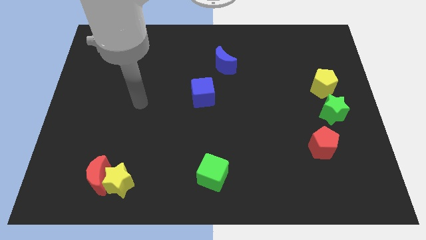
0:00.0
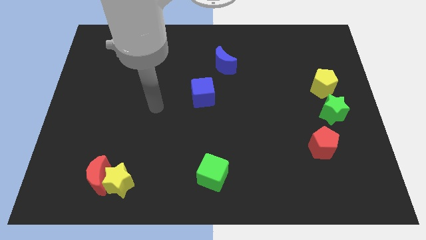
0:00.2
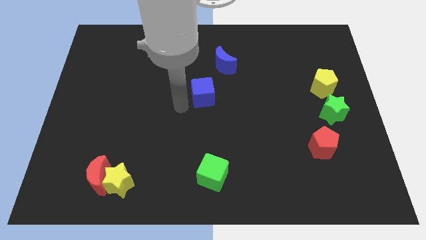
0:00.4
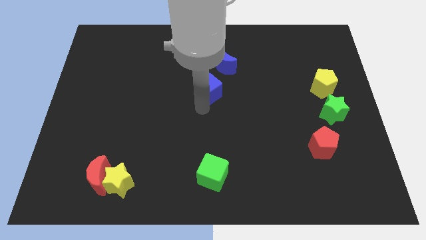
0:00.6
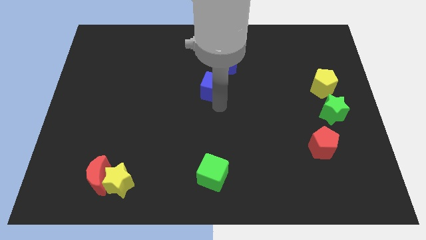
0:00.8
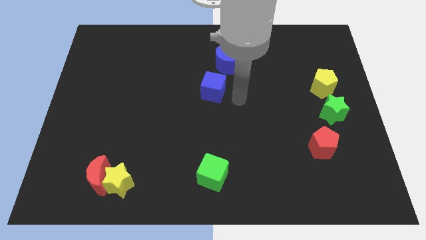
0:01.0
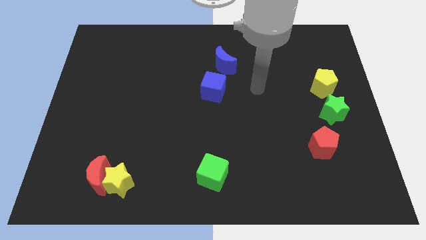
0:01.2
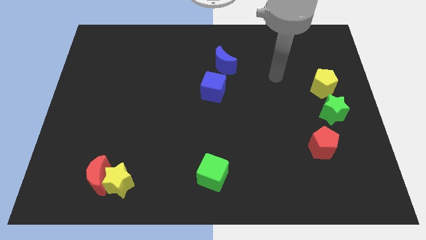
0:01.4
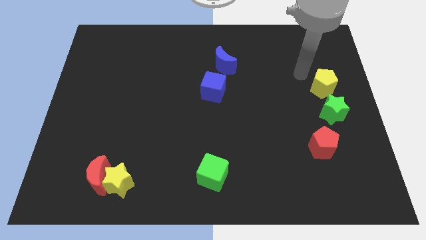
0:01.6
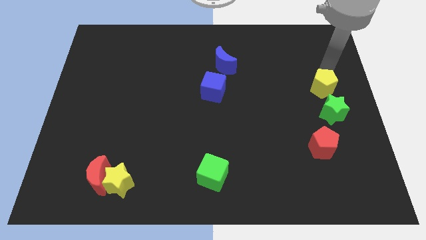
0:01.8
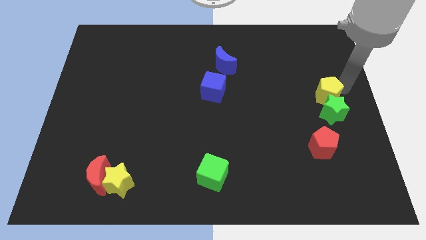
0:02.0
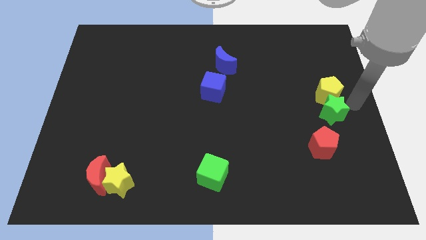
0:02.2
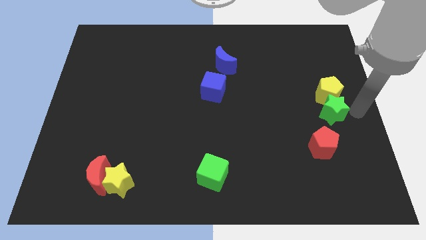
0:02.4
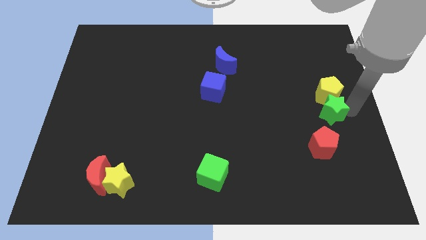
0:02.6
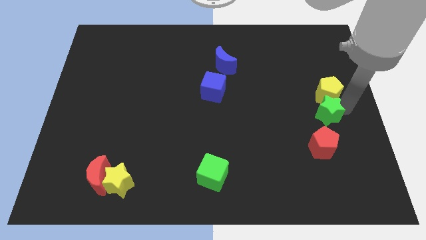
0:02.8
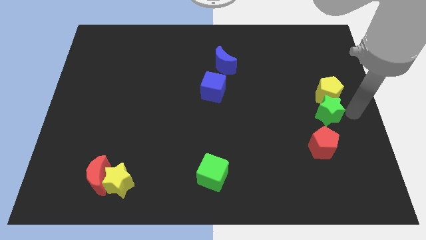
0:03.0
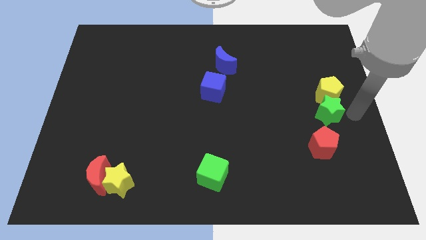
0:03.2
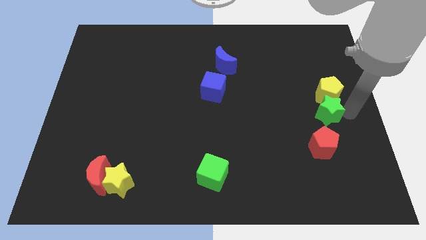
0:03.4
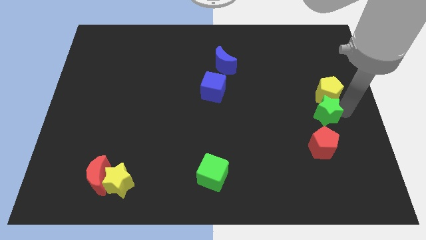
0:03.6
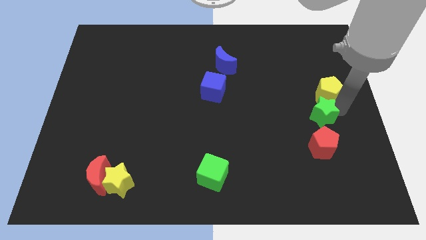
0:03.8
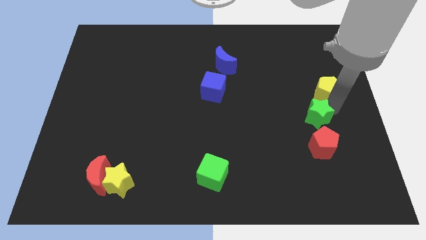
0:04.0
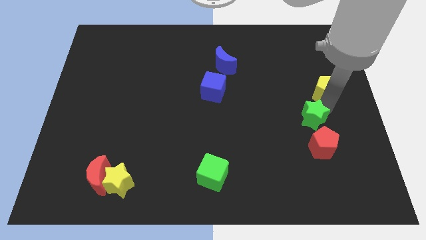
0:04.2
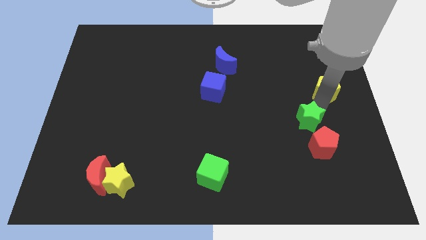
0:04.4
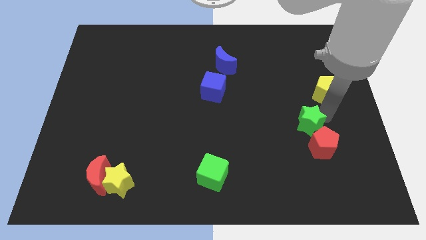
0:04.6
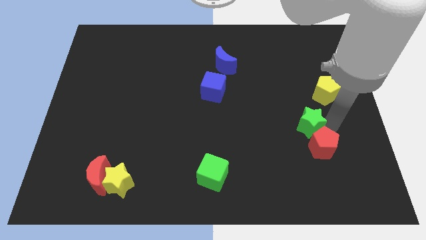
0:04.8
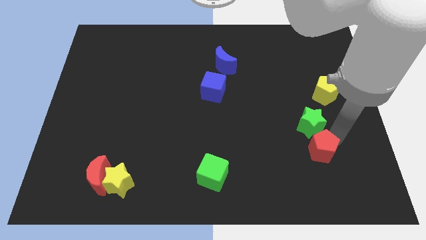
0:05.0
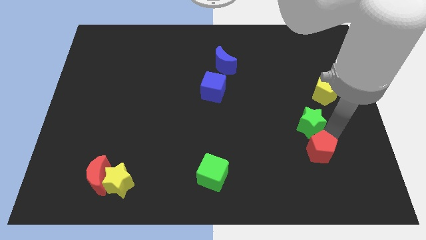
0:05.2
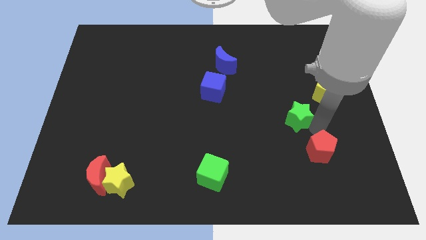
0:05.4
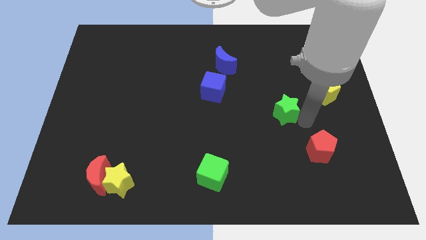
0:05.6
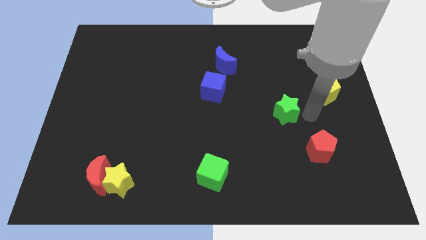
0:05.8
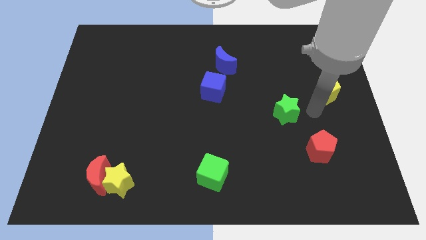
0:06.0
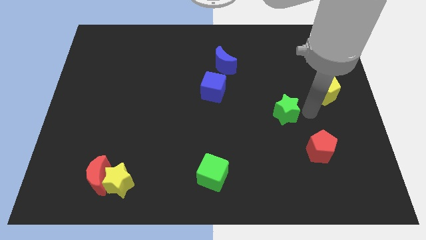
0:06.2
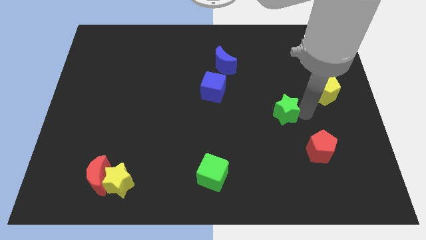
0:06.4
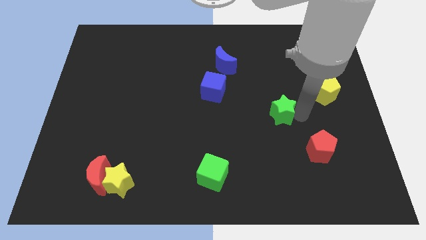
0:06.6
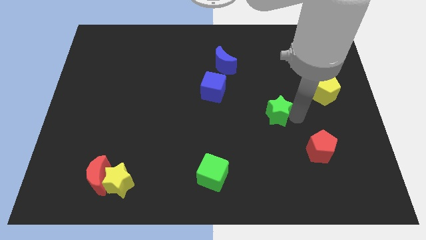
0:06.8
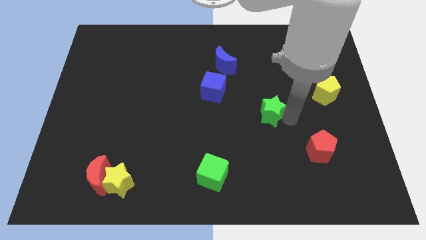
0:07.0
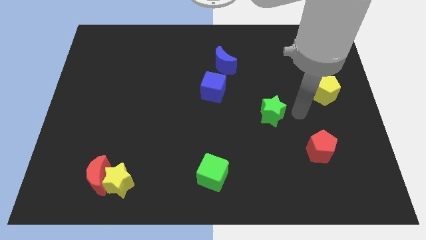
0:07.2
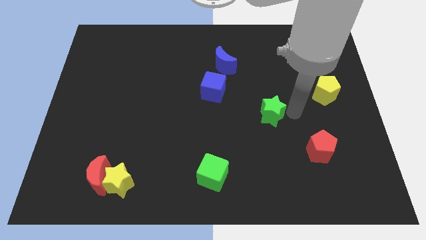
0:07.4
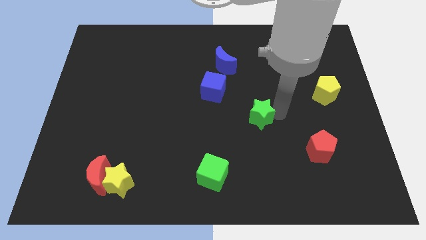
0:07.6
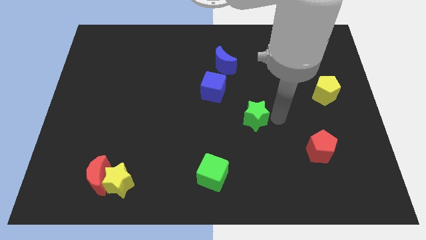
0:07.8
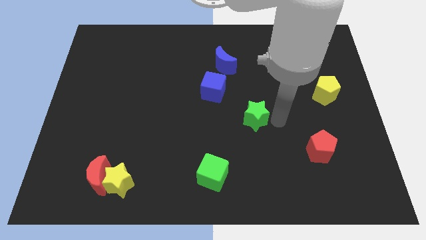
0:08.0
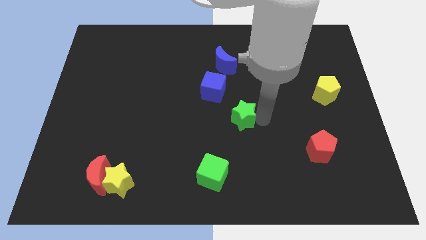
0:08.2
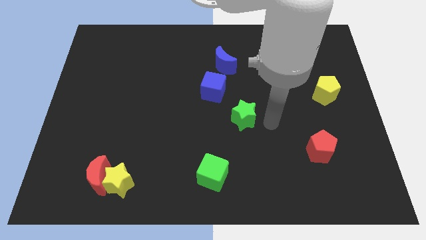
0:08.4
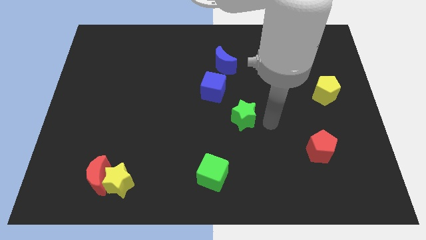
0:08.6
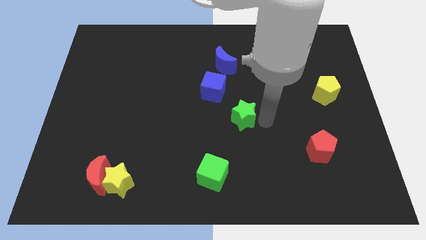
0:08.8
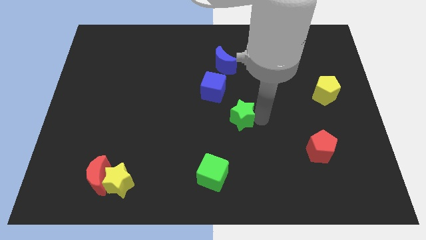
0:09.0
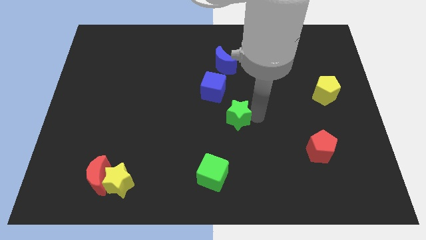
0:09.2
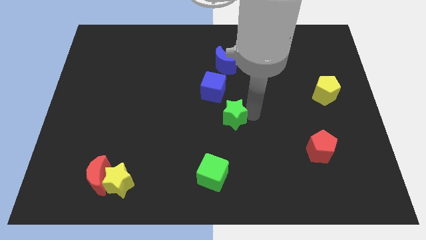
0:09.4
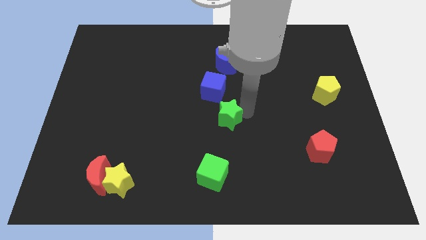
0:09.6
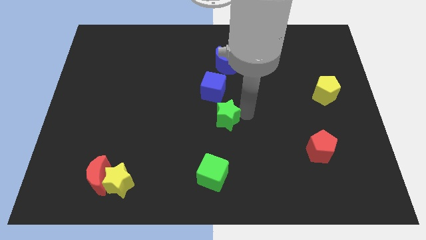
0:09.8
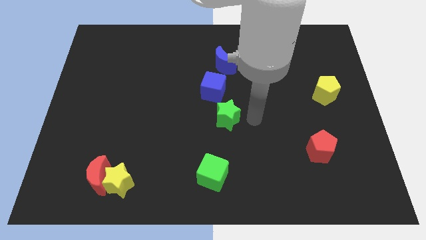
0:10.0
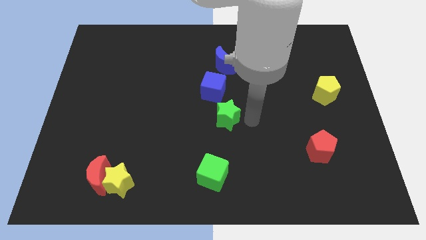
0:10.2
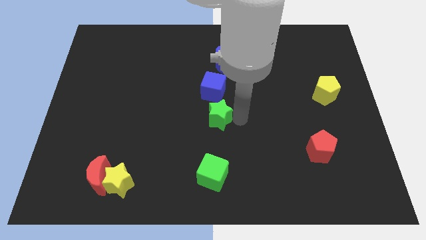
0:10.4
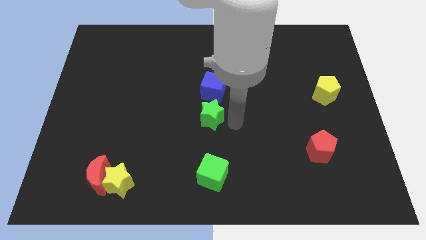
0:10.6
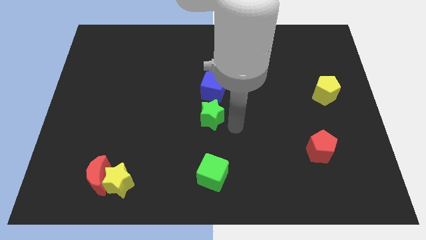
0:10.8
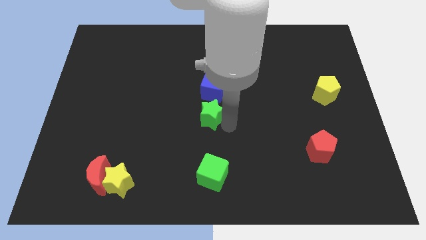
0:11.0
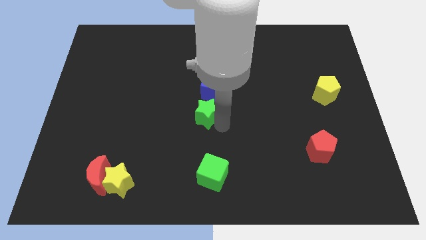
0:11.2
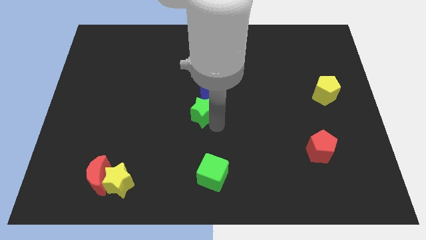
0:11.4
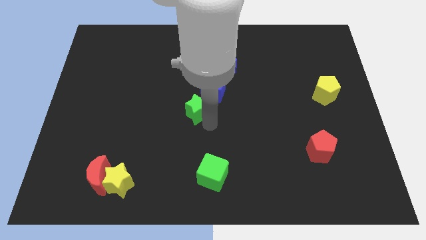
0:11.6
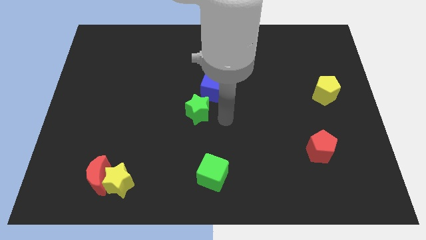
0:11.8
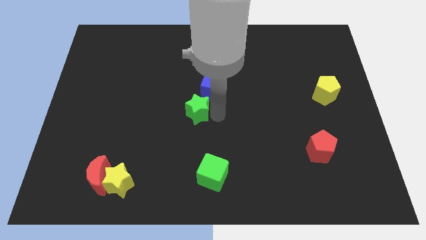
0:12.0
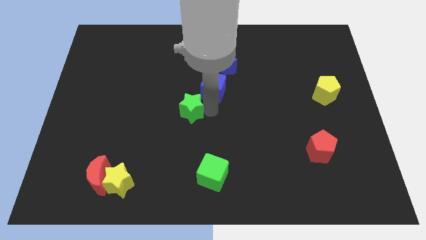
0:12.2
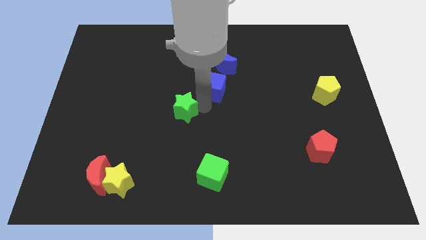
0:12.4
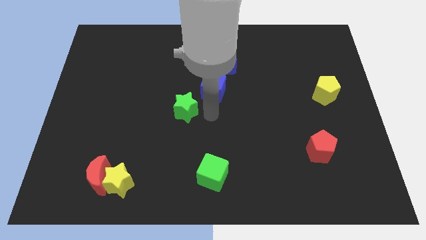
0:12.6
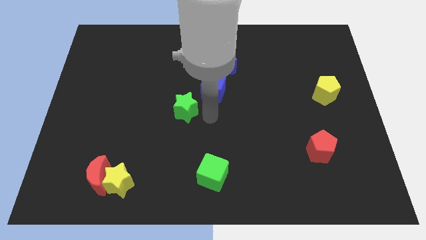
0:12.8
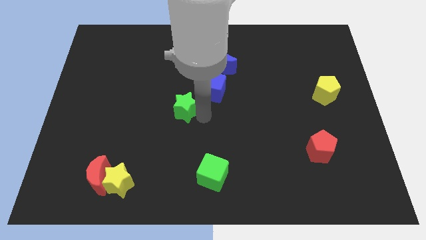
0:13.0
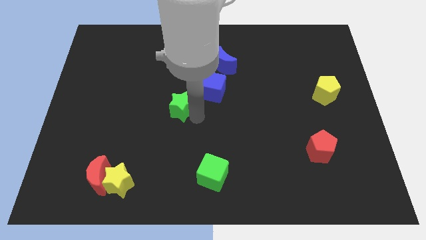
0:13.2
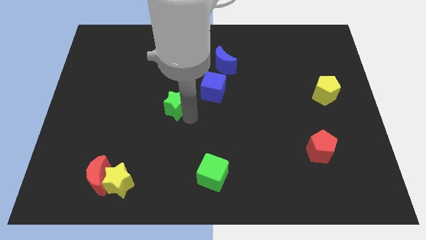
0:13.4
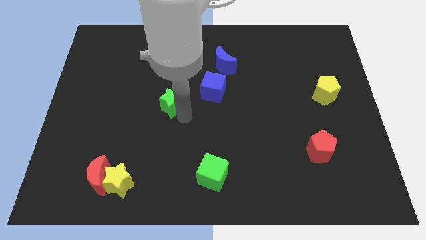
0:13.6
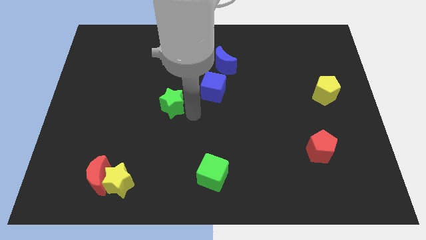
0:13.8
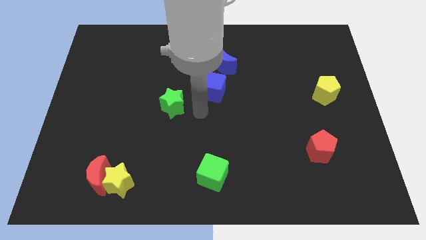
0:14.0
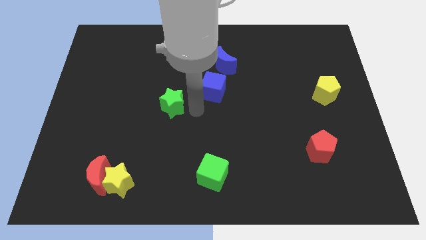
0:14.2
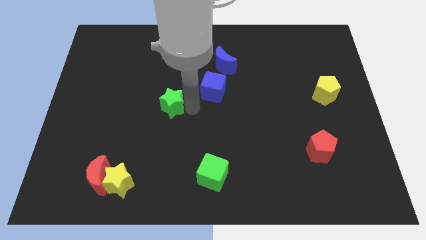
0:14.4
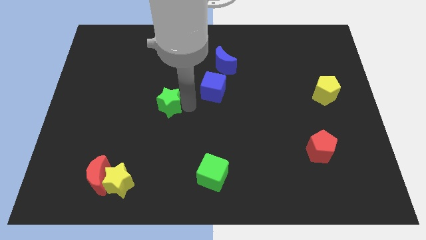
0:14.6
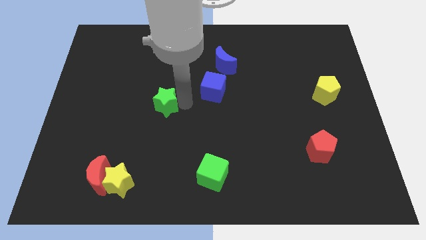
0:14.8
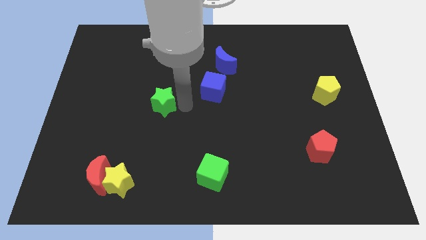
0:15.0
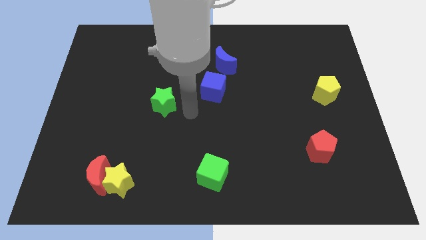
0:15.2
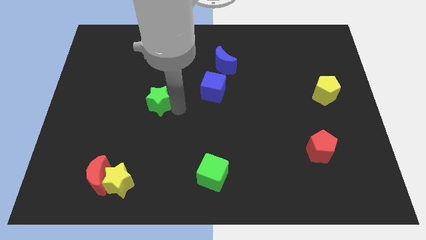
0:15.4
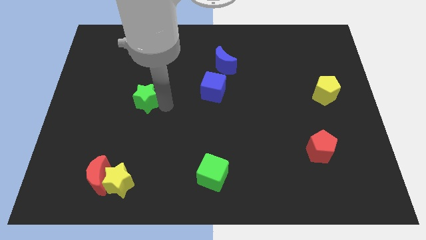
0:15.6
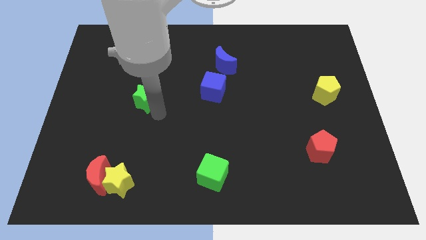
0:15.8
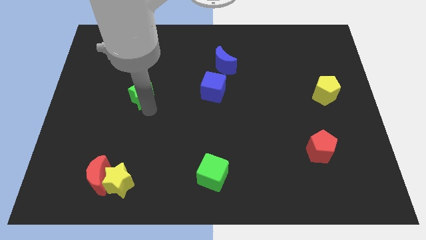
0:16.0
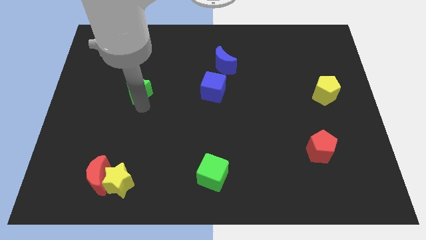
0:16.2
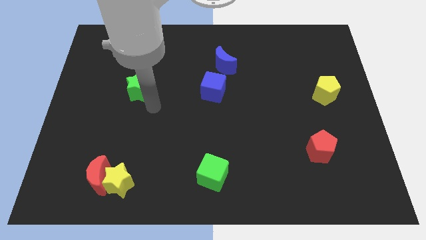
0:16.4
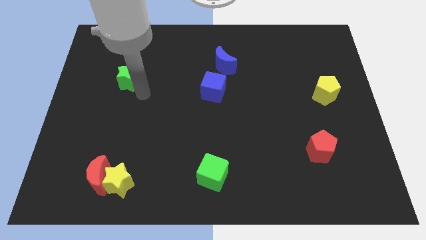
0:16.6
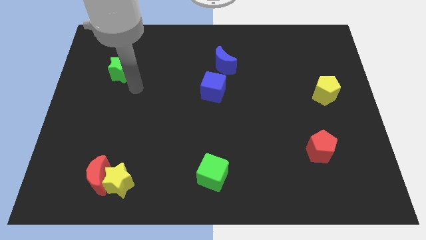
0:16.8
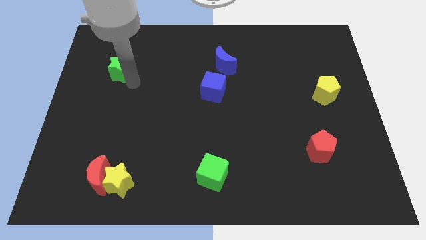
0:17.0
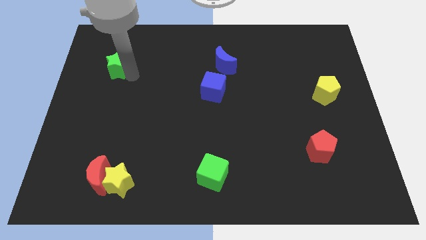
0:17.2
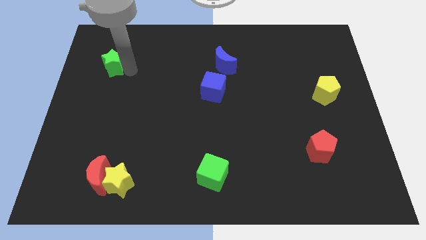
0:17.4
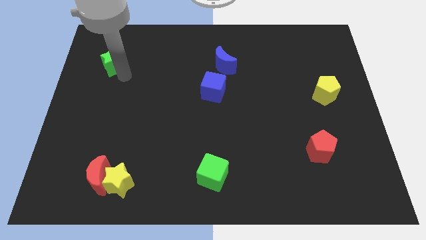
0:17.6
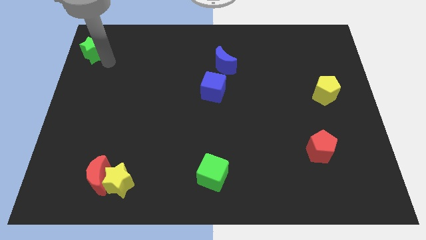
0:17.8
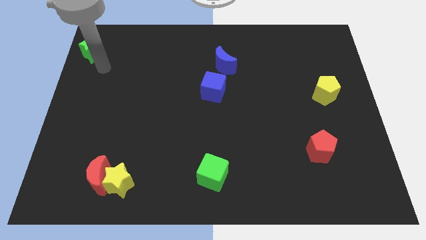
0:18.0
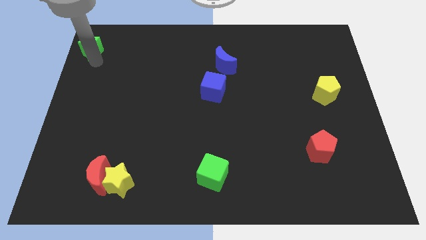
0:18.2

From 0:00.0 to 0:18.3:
move the green star to the top left corner
